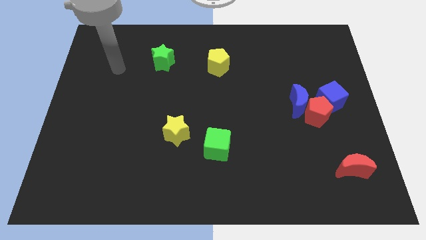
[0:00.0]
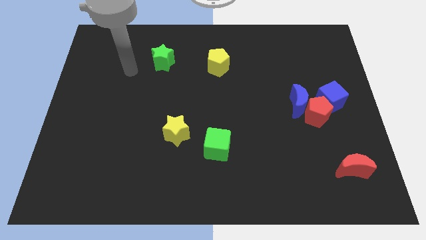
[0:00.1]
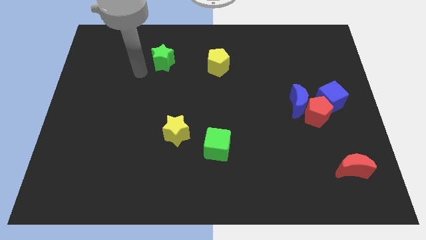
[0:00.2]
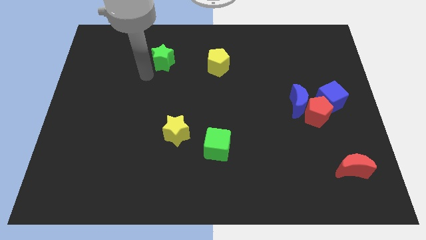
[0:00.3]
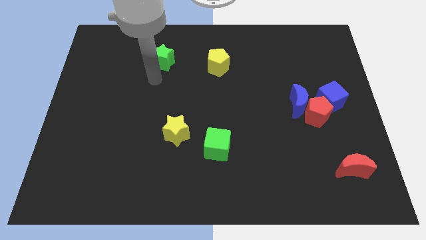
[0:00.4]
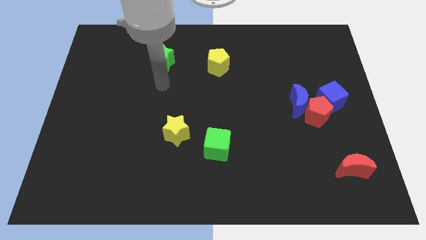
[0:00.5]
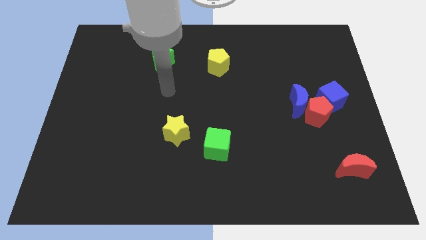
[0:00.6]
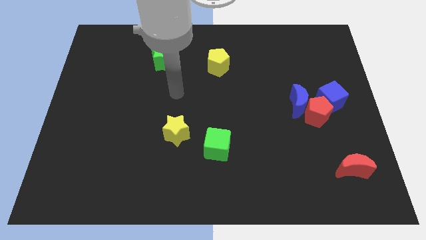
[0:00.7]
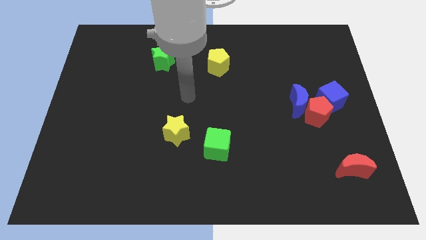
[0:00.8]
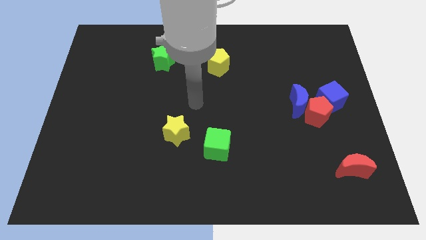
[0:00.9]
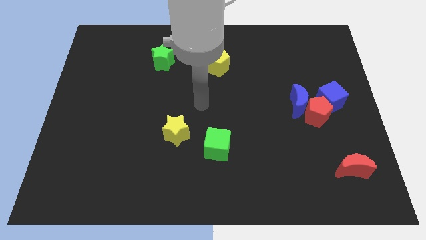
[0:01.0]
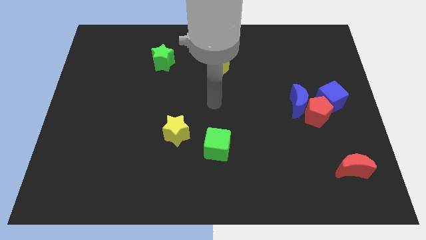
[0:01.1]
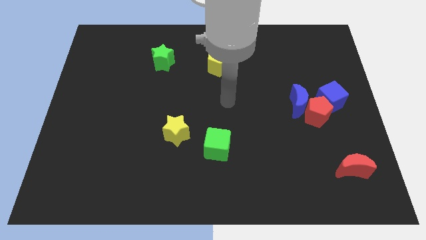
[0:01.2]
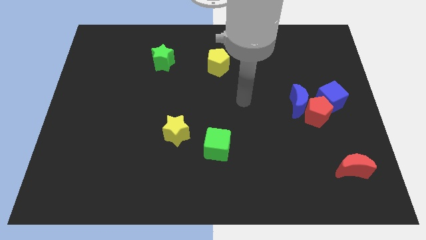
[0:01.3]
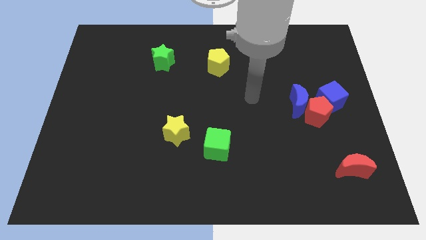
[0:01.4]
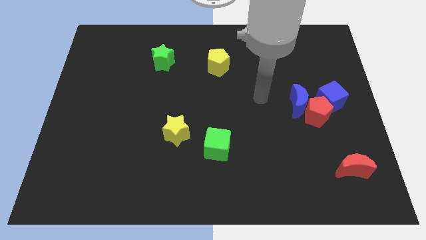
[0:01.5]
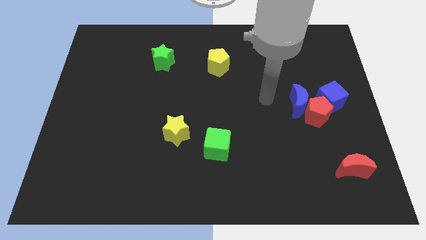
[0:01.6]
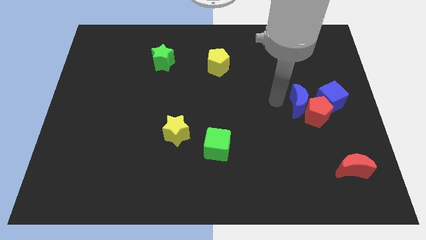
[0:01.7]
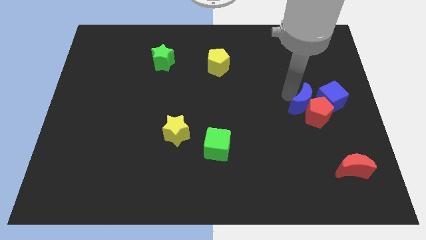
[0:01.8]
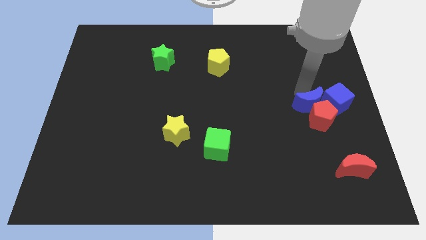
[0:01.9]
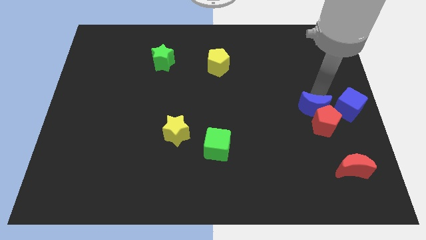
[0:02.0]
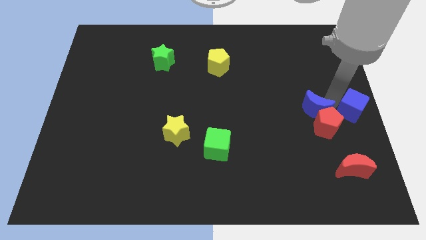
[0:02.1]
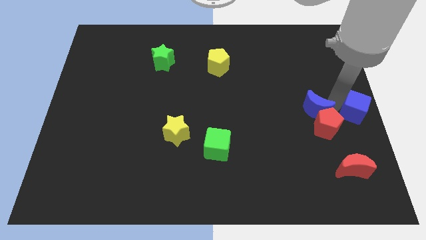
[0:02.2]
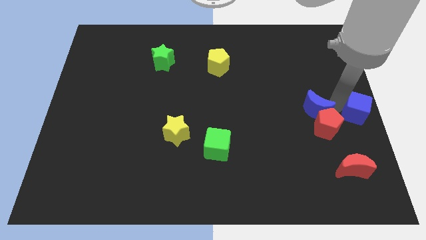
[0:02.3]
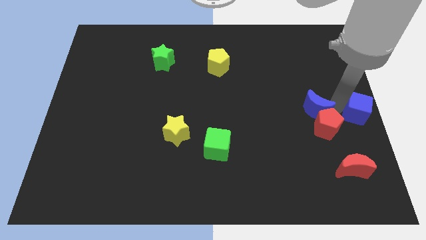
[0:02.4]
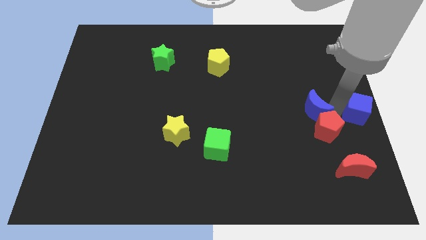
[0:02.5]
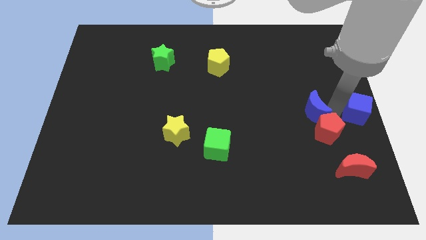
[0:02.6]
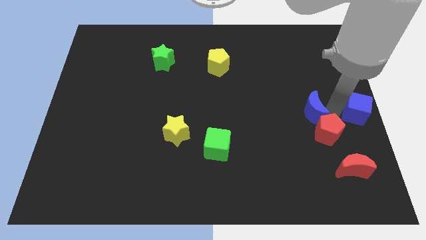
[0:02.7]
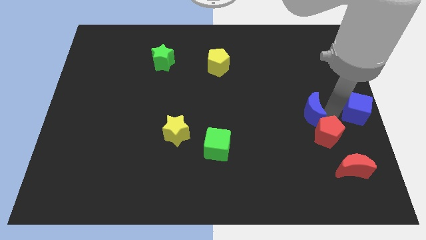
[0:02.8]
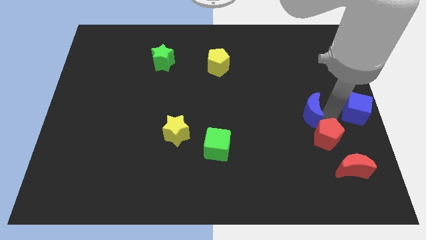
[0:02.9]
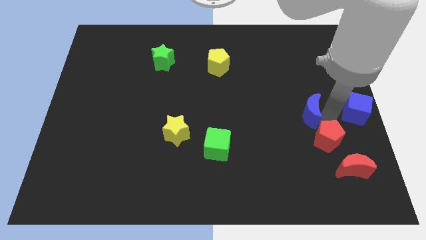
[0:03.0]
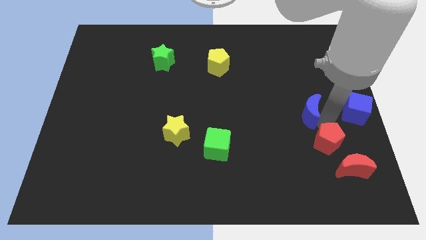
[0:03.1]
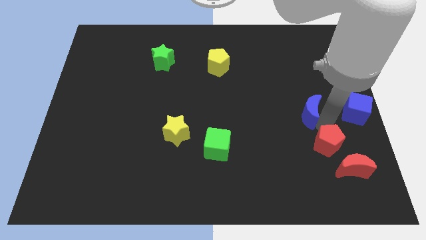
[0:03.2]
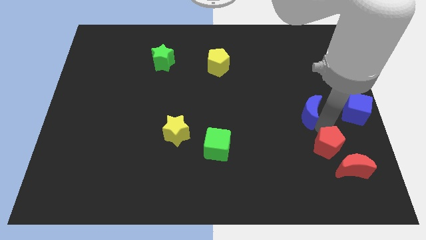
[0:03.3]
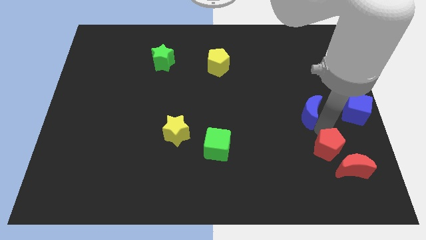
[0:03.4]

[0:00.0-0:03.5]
pull the red pentagon apart from the blue moon and blue cube

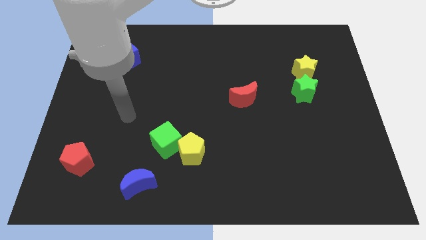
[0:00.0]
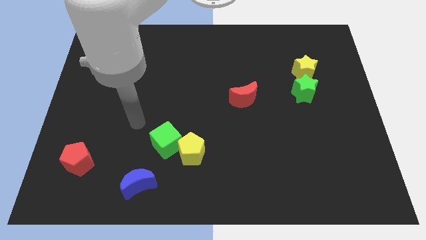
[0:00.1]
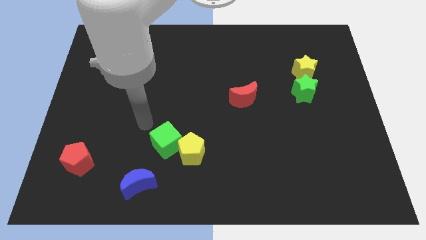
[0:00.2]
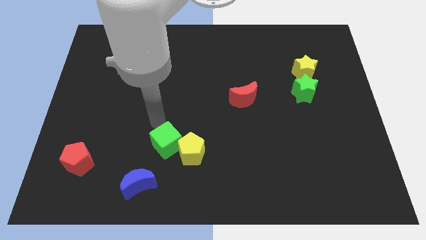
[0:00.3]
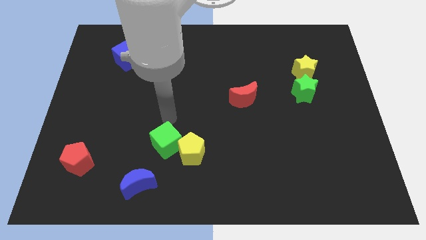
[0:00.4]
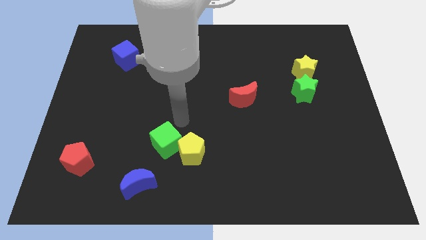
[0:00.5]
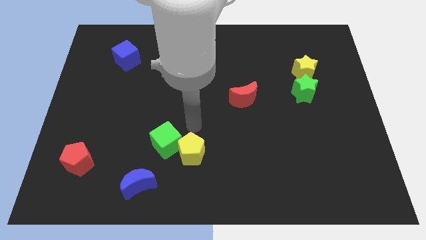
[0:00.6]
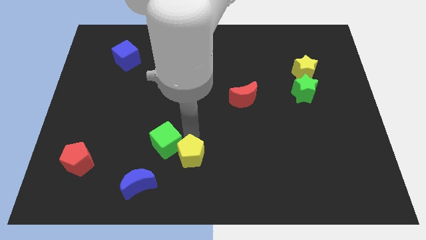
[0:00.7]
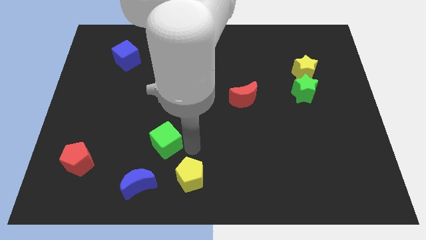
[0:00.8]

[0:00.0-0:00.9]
pull the green cube apart from the yellow pentagon

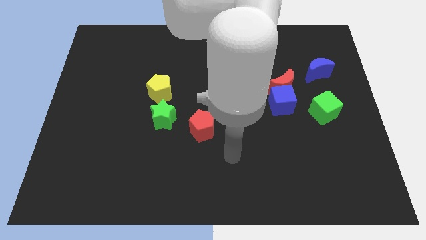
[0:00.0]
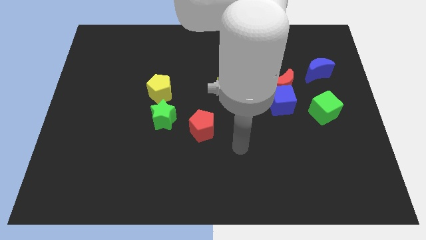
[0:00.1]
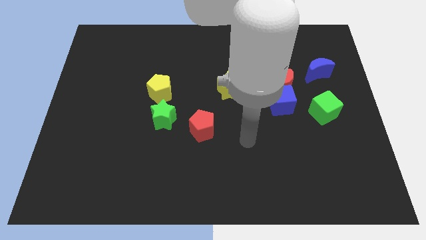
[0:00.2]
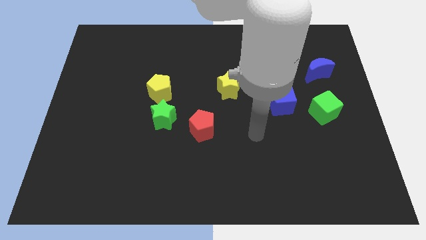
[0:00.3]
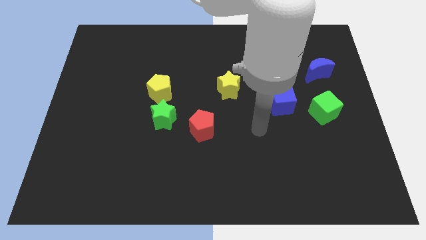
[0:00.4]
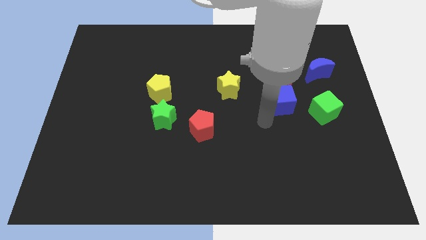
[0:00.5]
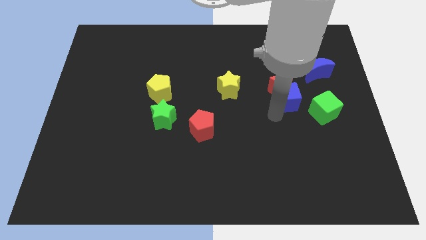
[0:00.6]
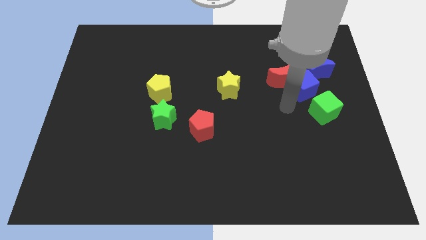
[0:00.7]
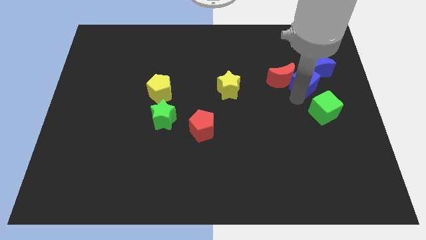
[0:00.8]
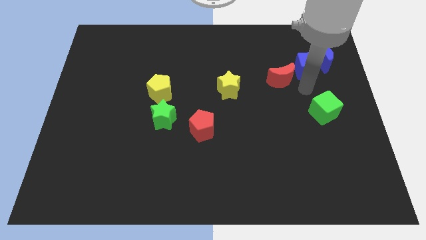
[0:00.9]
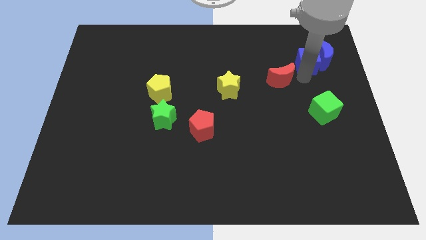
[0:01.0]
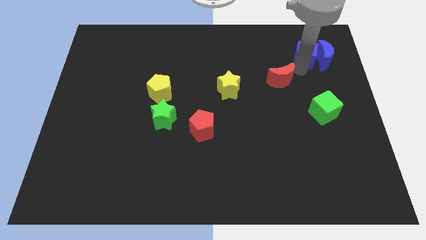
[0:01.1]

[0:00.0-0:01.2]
separate the red moon from the blue cube

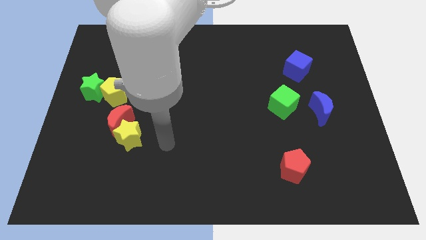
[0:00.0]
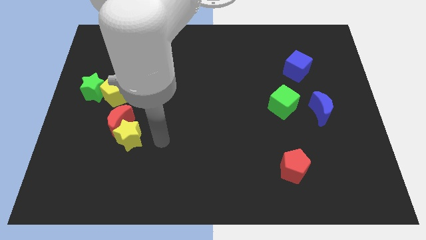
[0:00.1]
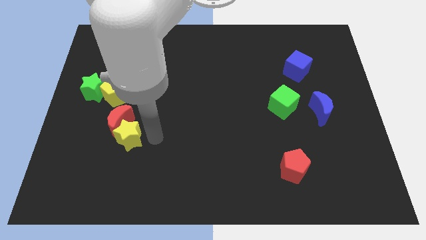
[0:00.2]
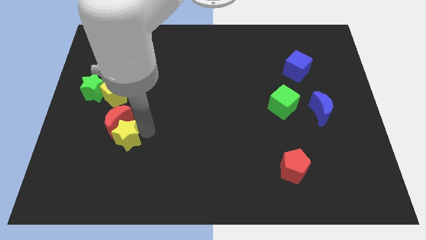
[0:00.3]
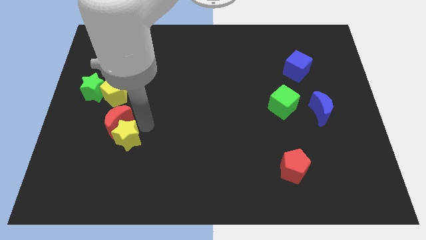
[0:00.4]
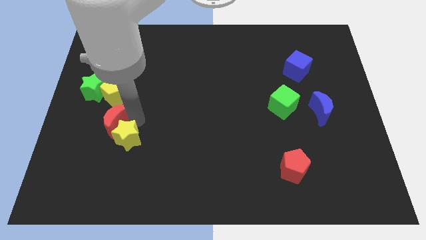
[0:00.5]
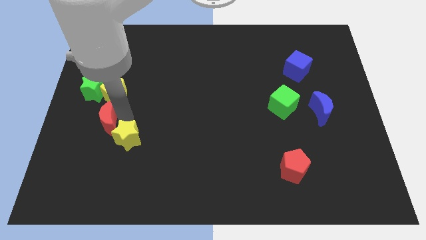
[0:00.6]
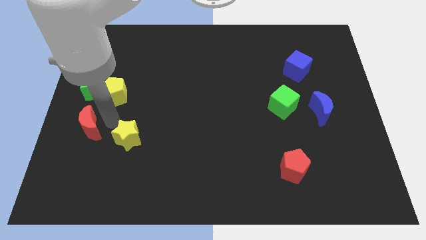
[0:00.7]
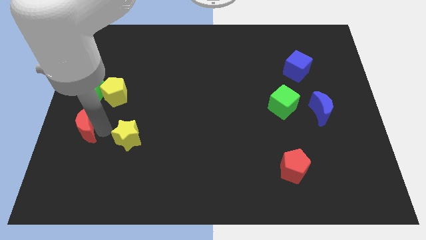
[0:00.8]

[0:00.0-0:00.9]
move the yellow star away from the red moon

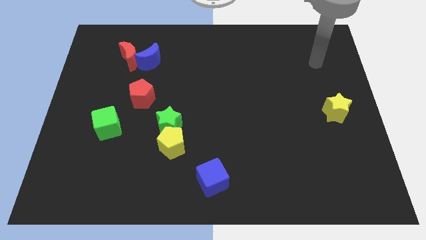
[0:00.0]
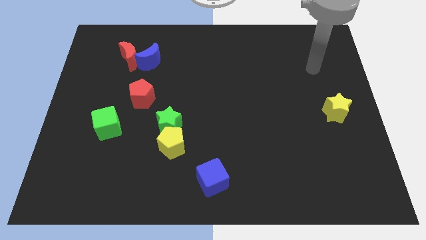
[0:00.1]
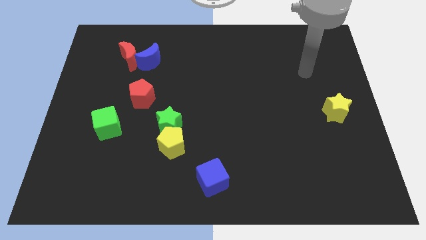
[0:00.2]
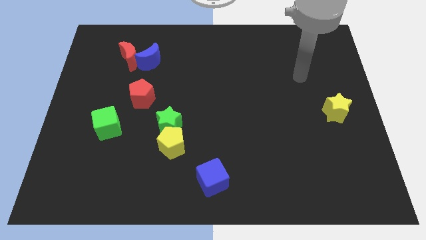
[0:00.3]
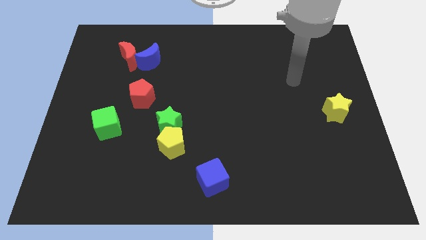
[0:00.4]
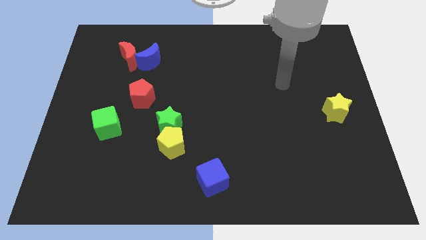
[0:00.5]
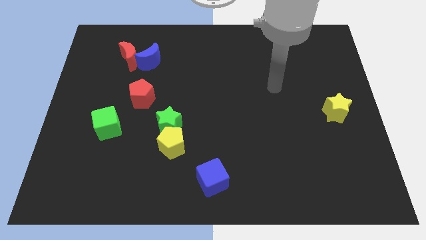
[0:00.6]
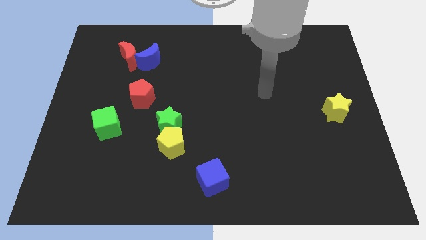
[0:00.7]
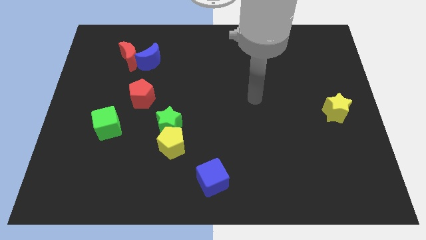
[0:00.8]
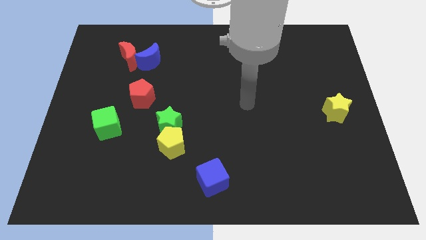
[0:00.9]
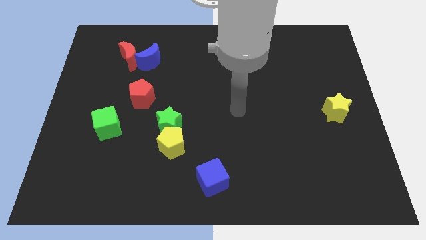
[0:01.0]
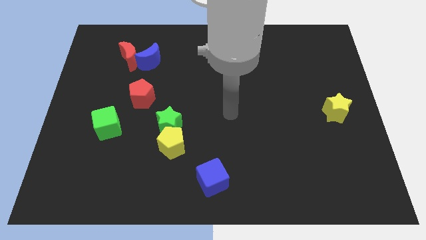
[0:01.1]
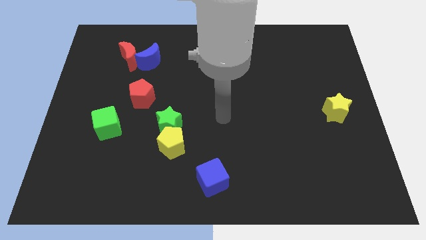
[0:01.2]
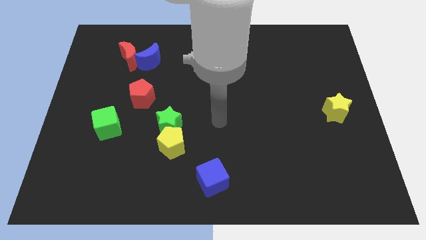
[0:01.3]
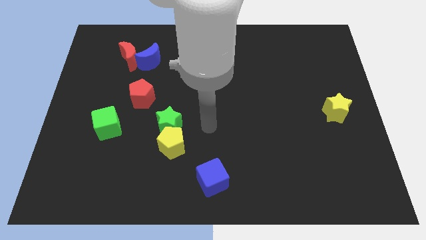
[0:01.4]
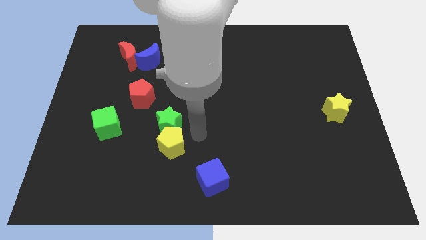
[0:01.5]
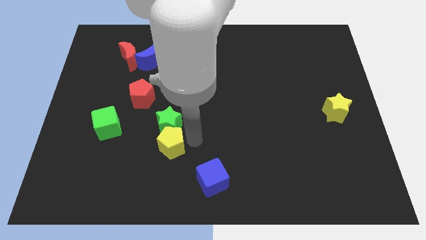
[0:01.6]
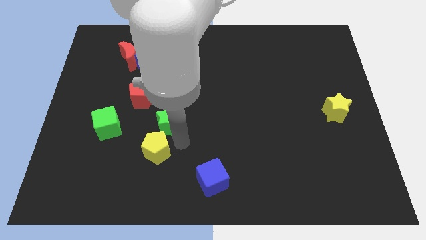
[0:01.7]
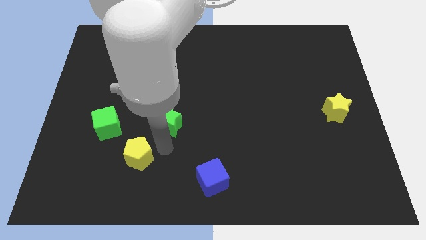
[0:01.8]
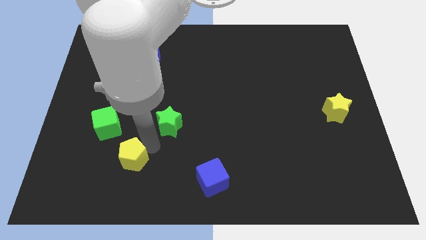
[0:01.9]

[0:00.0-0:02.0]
separate the green star from the yellow pentagon

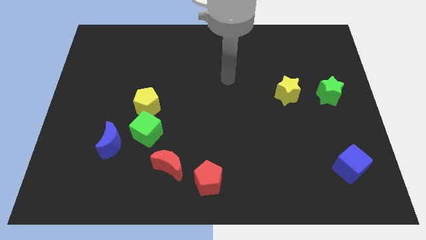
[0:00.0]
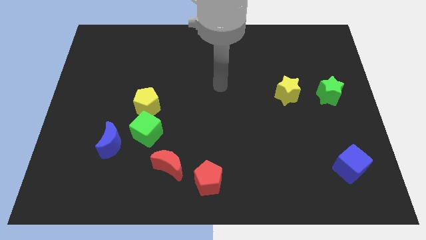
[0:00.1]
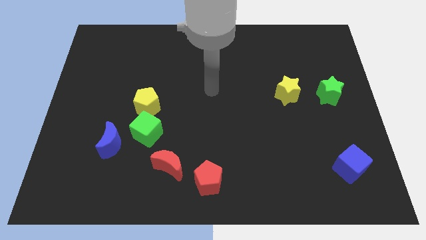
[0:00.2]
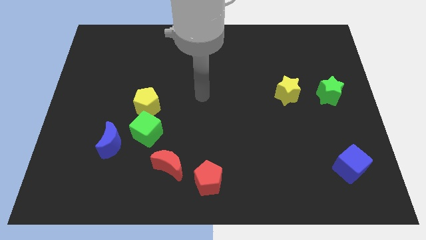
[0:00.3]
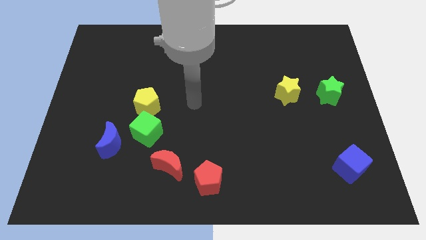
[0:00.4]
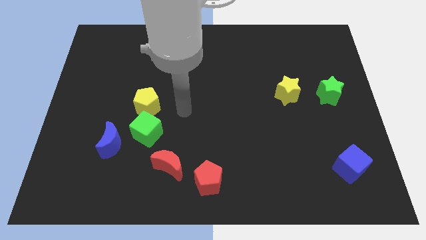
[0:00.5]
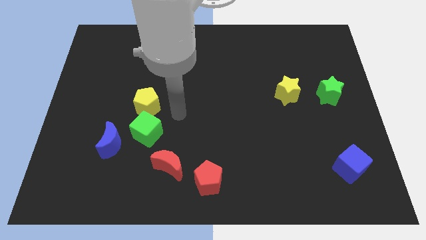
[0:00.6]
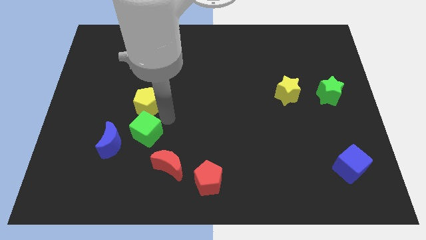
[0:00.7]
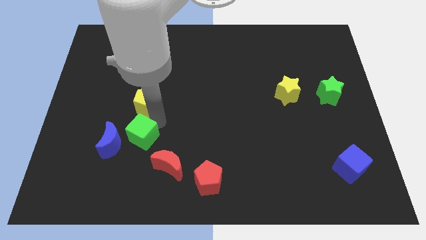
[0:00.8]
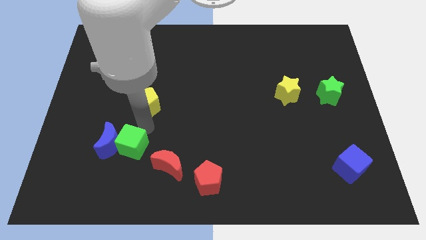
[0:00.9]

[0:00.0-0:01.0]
move the yellow pentagon away from the green cube
